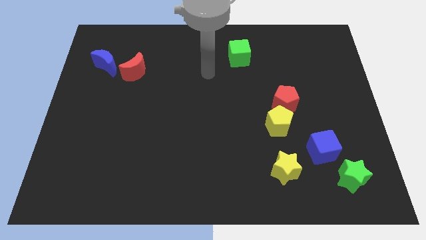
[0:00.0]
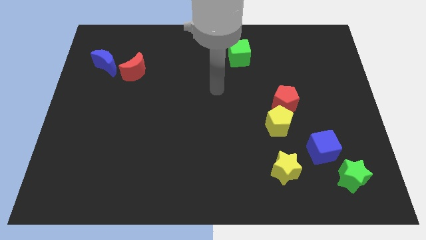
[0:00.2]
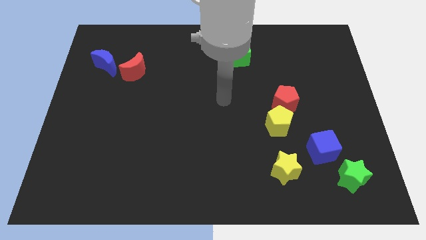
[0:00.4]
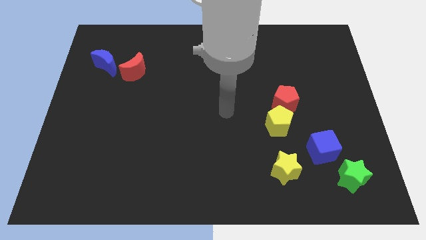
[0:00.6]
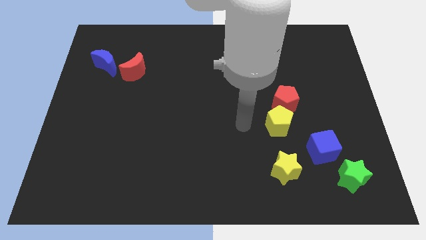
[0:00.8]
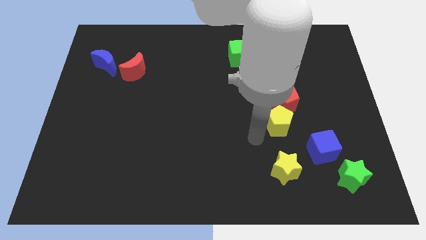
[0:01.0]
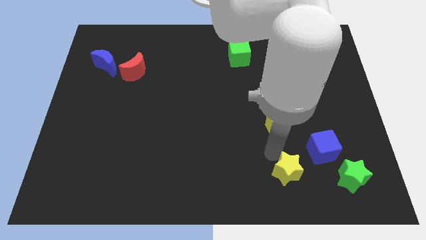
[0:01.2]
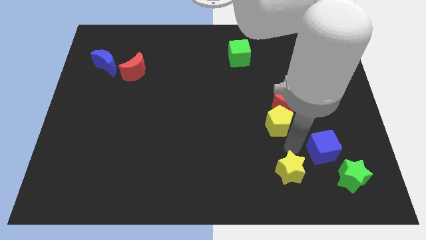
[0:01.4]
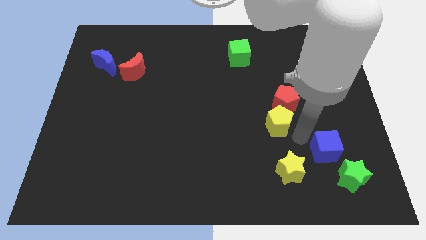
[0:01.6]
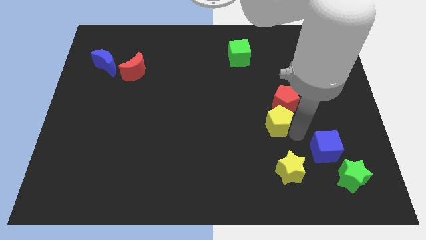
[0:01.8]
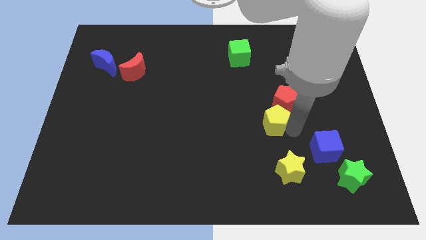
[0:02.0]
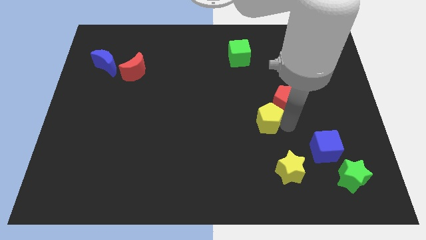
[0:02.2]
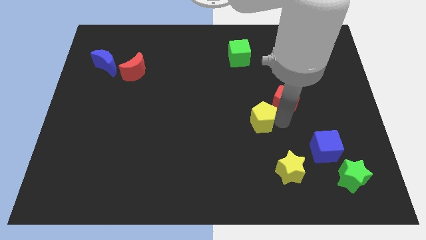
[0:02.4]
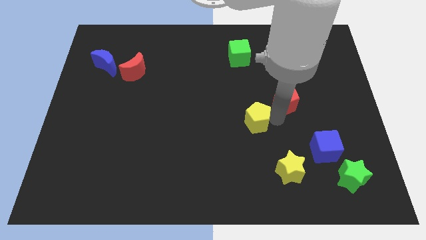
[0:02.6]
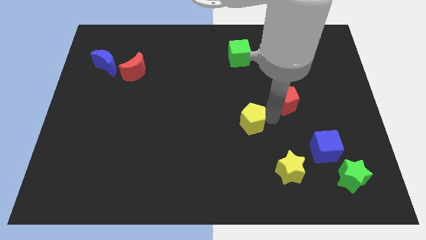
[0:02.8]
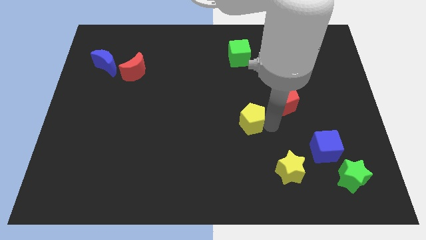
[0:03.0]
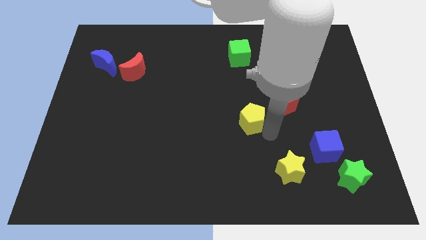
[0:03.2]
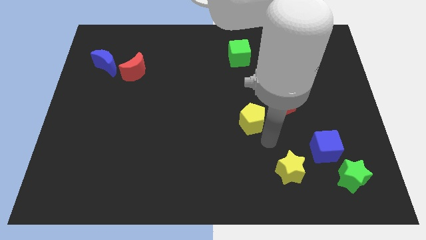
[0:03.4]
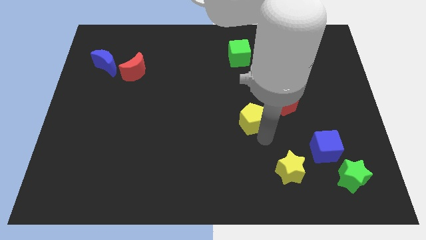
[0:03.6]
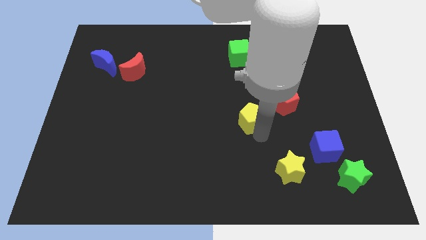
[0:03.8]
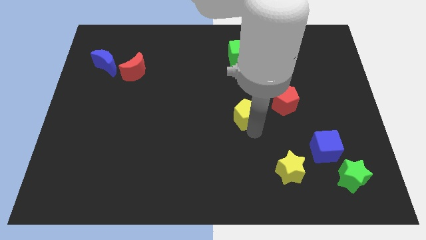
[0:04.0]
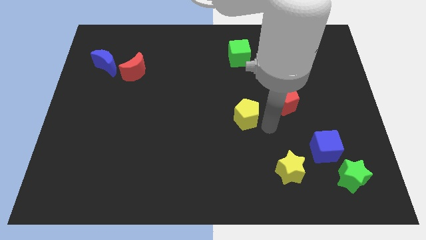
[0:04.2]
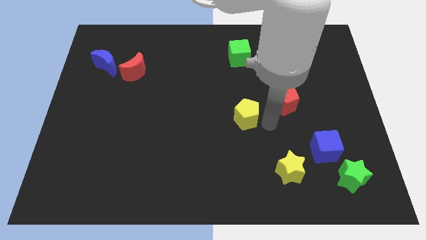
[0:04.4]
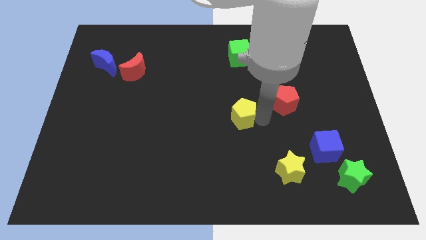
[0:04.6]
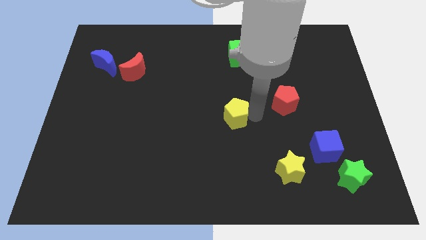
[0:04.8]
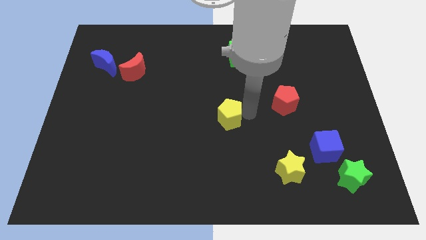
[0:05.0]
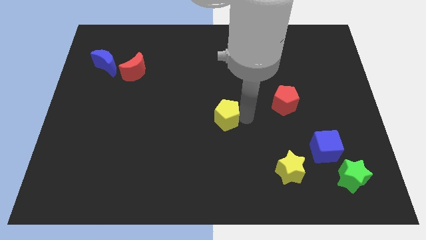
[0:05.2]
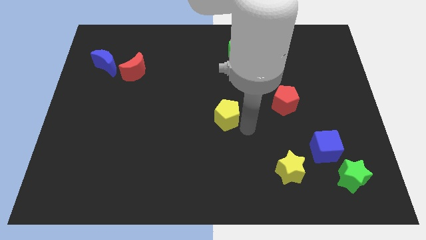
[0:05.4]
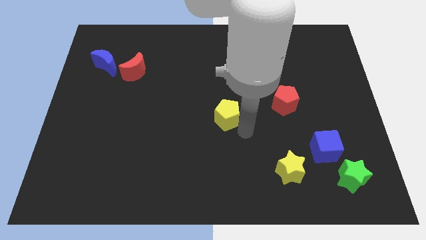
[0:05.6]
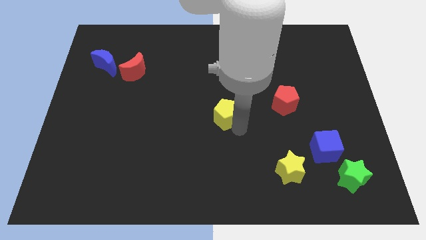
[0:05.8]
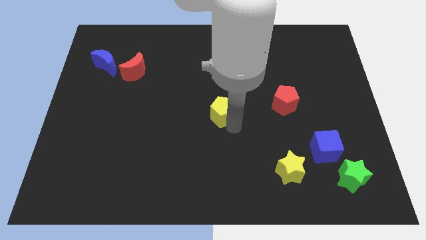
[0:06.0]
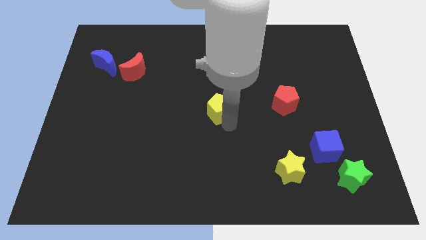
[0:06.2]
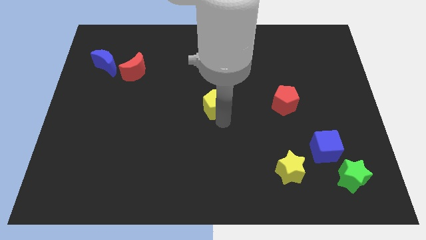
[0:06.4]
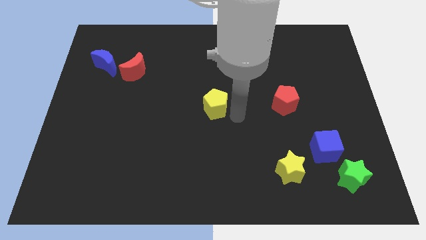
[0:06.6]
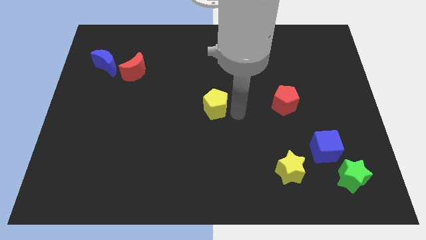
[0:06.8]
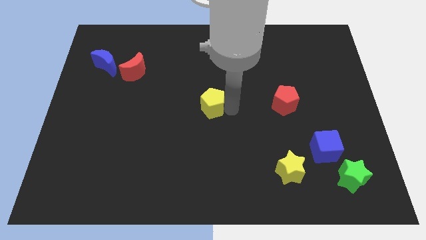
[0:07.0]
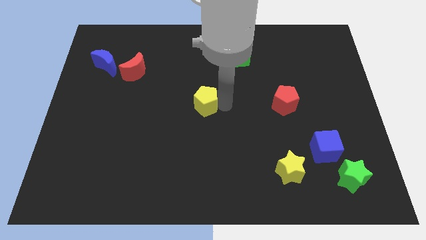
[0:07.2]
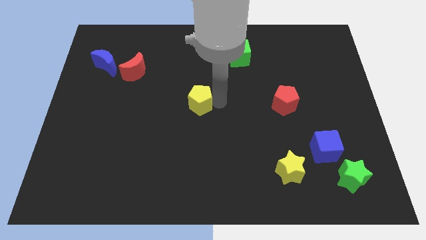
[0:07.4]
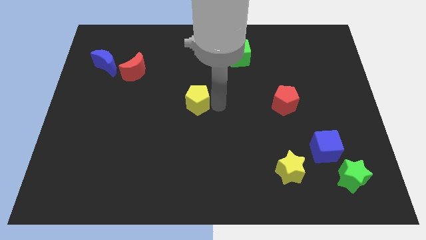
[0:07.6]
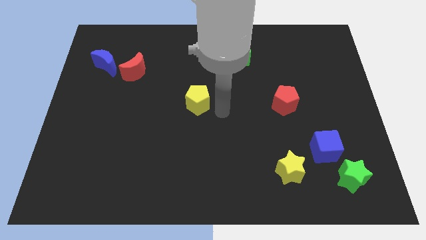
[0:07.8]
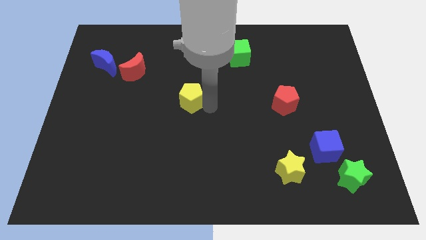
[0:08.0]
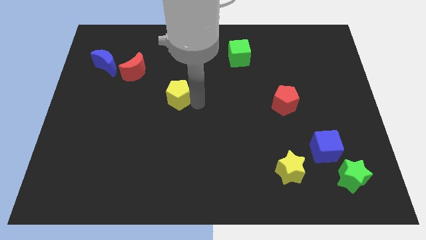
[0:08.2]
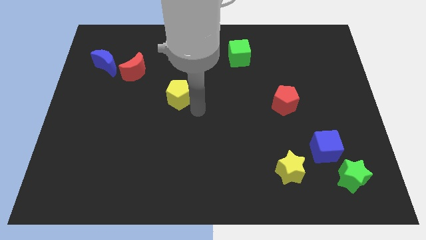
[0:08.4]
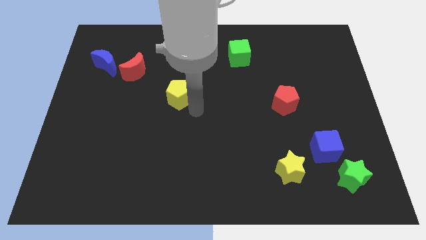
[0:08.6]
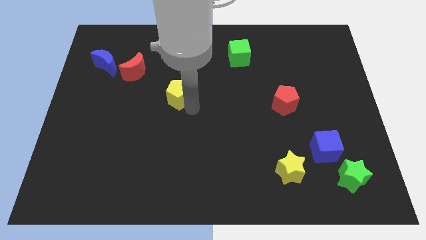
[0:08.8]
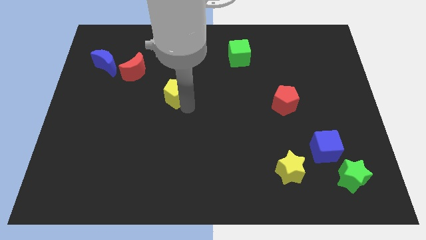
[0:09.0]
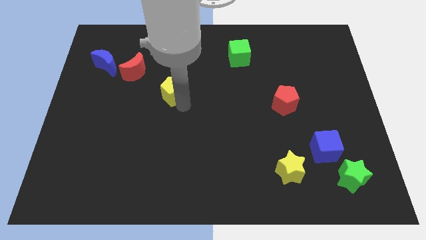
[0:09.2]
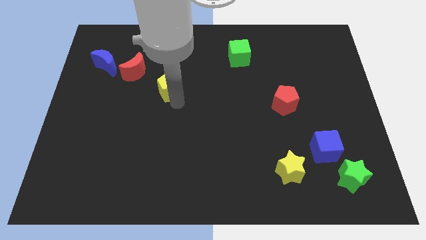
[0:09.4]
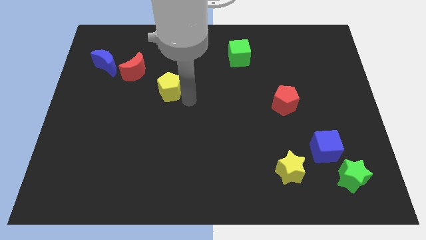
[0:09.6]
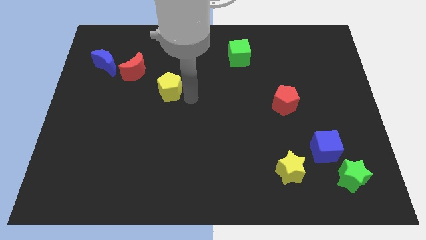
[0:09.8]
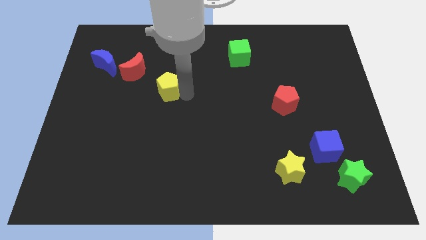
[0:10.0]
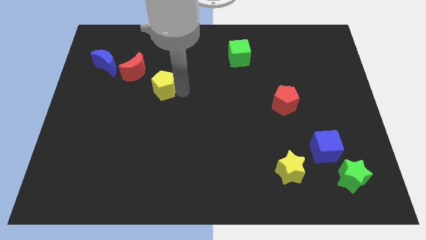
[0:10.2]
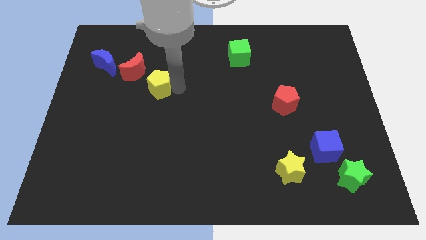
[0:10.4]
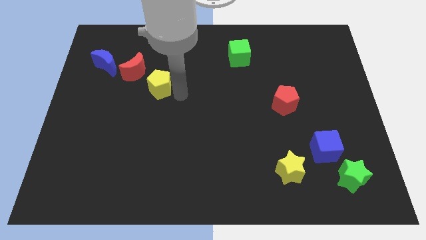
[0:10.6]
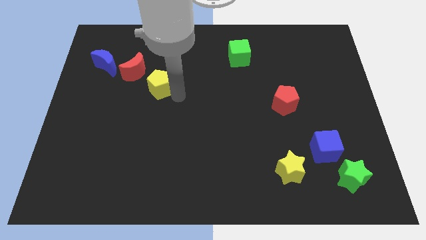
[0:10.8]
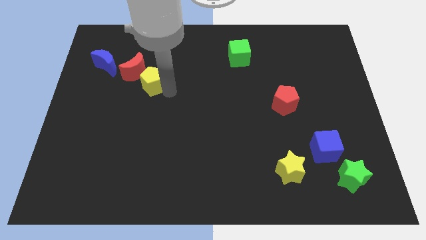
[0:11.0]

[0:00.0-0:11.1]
put the yellow pentagon next to the red moon

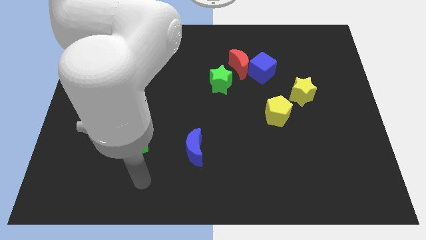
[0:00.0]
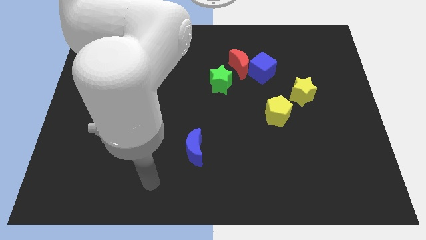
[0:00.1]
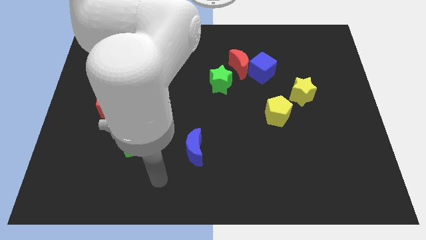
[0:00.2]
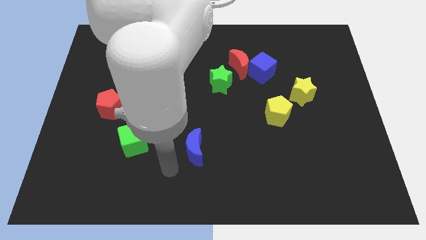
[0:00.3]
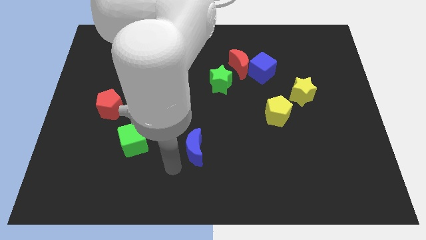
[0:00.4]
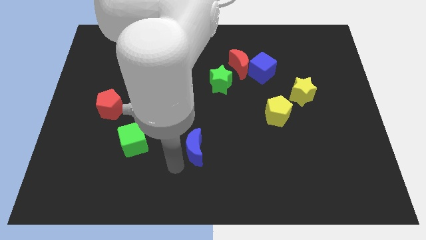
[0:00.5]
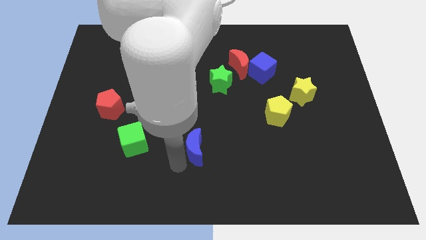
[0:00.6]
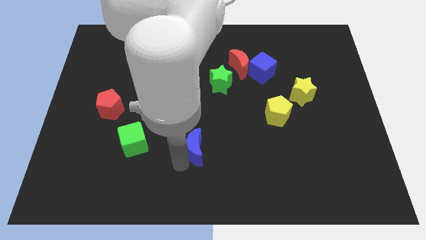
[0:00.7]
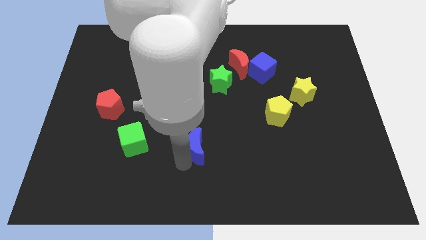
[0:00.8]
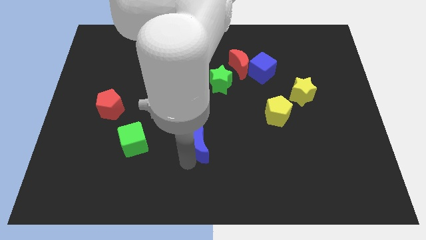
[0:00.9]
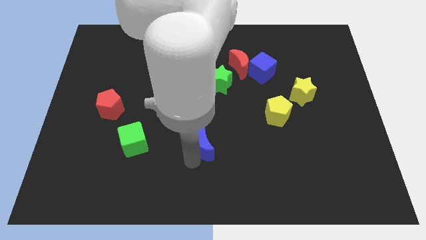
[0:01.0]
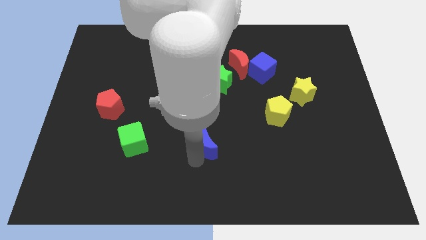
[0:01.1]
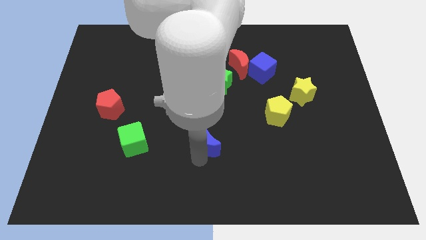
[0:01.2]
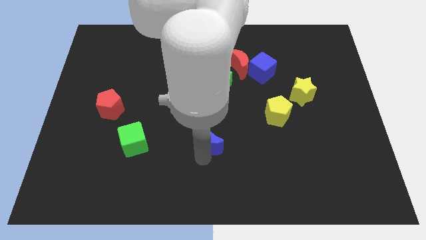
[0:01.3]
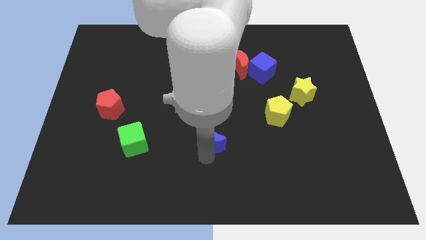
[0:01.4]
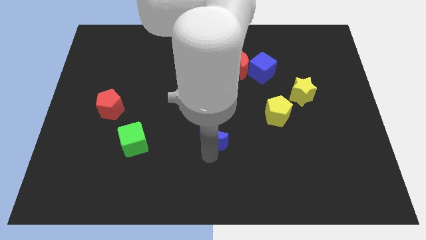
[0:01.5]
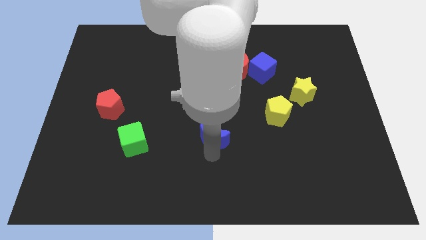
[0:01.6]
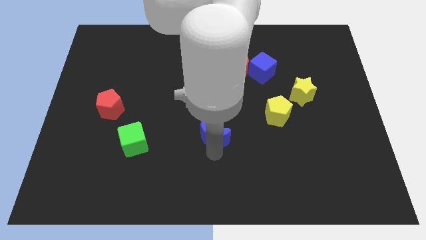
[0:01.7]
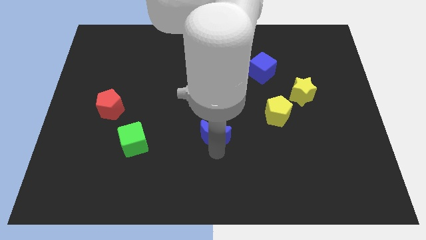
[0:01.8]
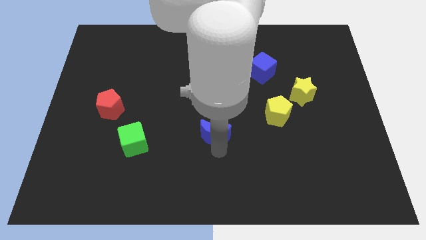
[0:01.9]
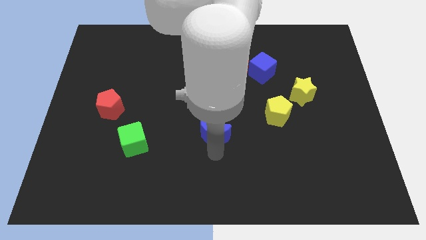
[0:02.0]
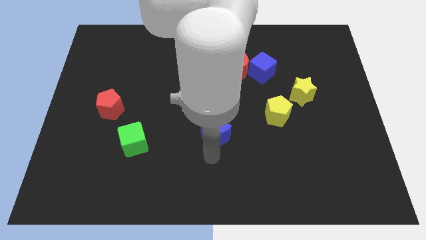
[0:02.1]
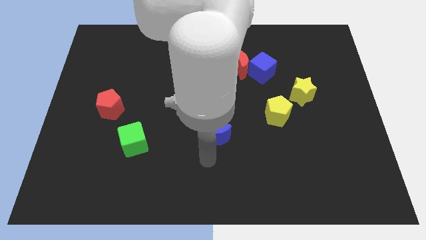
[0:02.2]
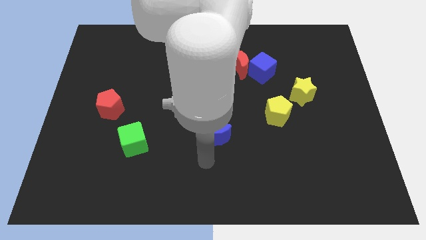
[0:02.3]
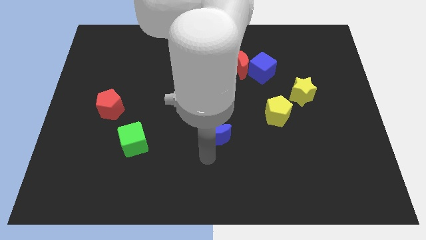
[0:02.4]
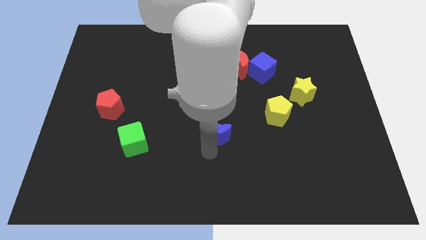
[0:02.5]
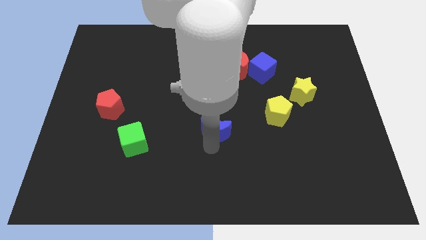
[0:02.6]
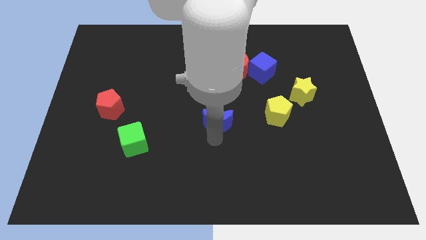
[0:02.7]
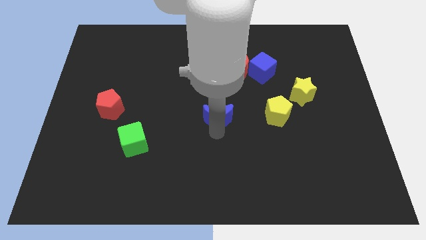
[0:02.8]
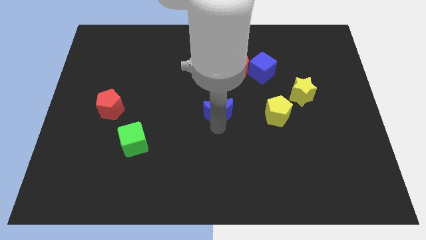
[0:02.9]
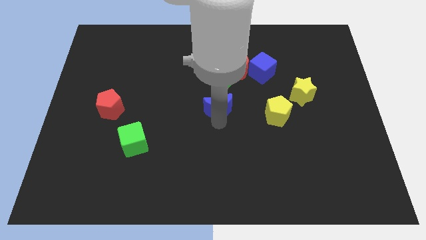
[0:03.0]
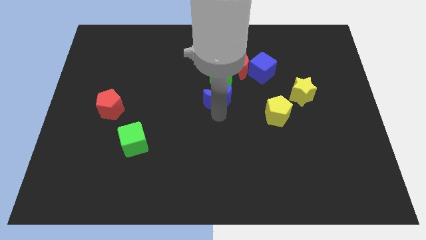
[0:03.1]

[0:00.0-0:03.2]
move the blue moon next to the green star
